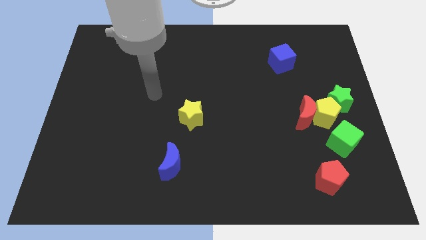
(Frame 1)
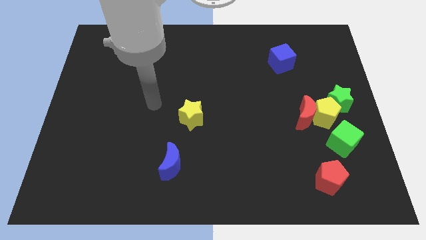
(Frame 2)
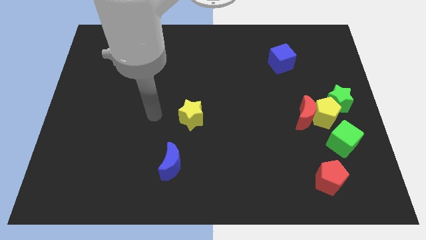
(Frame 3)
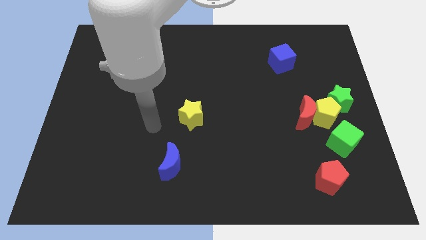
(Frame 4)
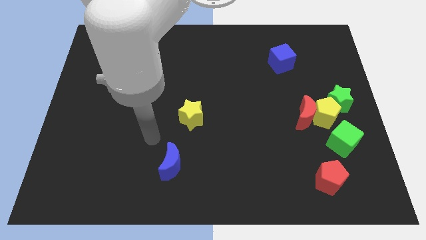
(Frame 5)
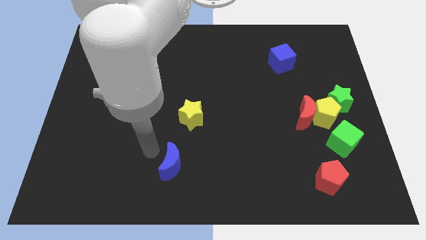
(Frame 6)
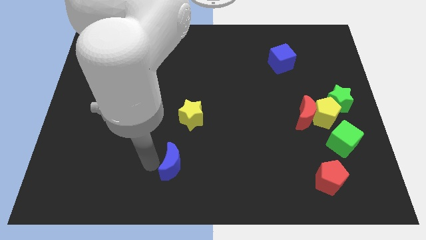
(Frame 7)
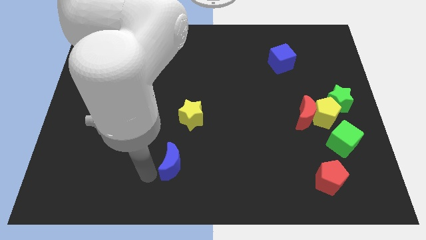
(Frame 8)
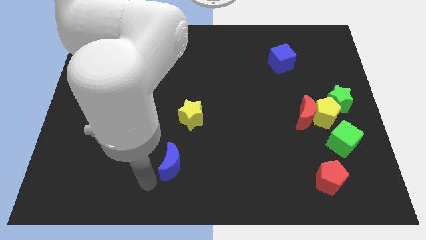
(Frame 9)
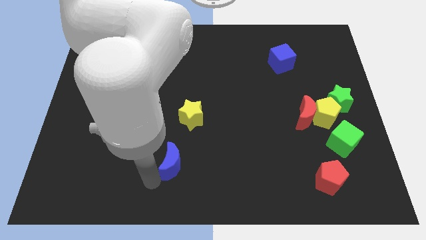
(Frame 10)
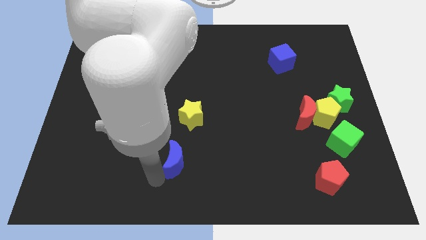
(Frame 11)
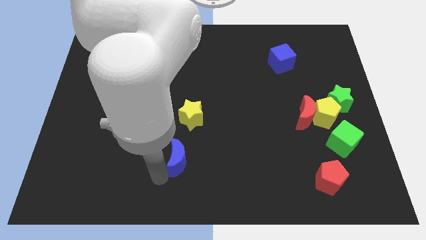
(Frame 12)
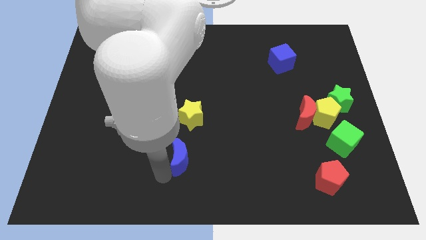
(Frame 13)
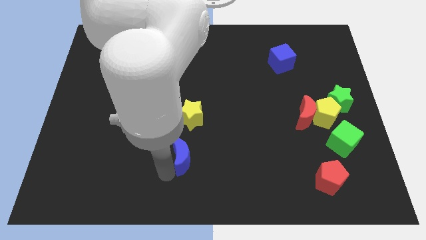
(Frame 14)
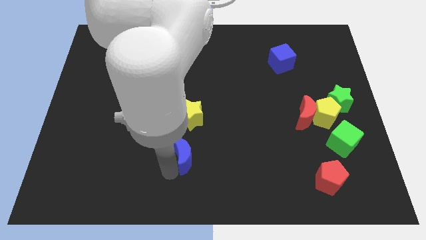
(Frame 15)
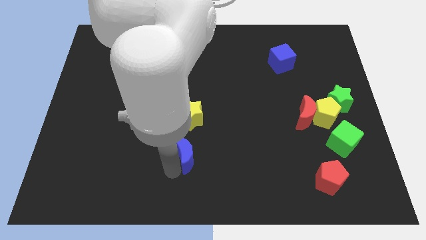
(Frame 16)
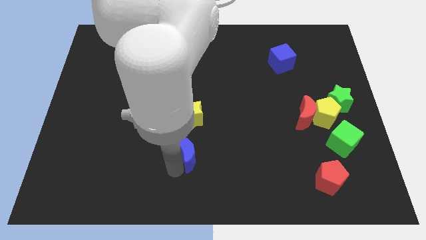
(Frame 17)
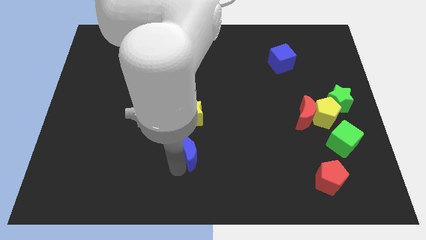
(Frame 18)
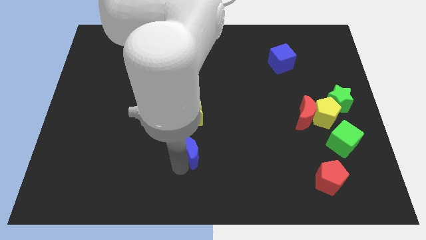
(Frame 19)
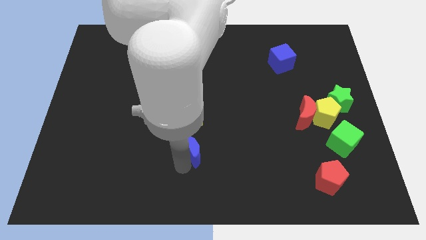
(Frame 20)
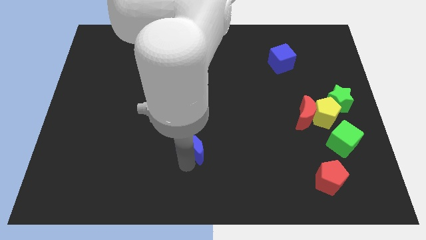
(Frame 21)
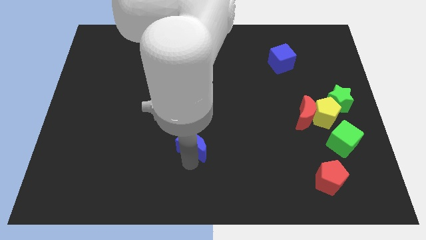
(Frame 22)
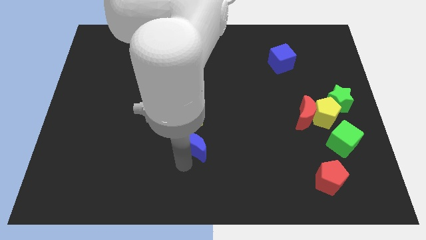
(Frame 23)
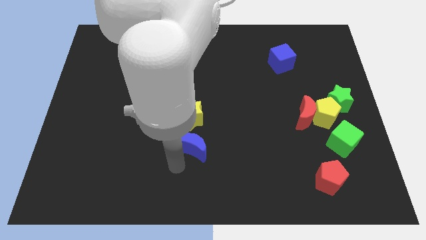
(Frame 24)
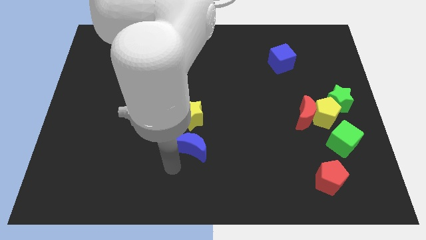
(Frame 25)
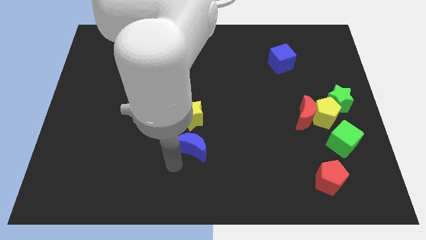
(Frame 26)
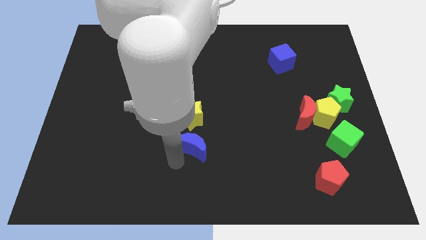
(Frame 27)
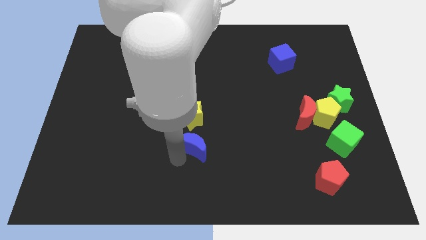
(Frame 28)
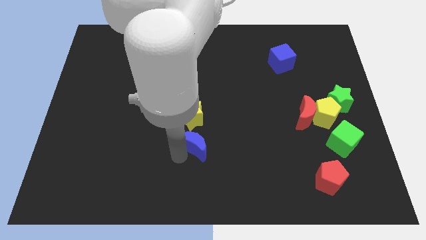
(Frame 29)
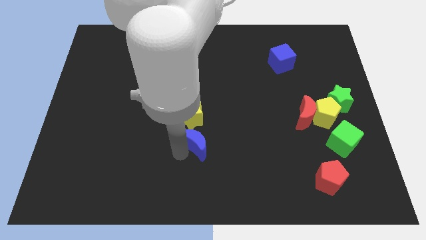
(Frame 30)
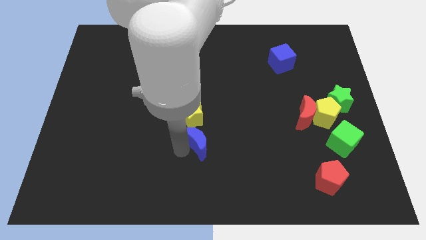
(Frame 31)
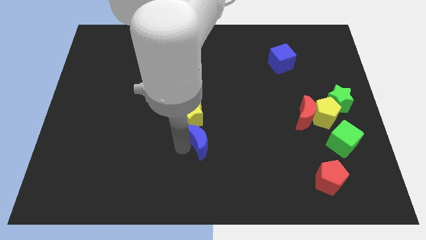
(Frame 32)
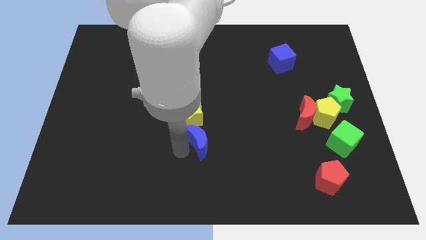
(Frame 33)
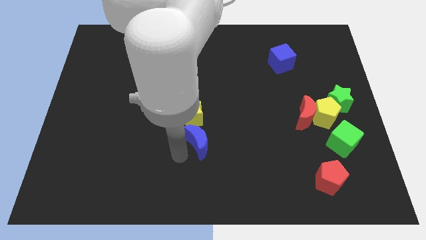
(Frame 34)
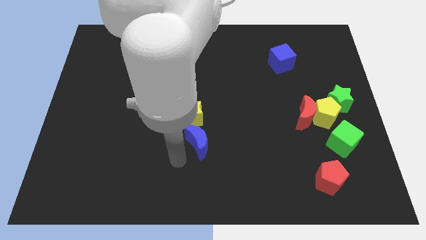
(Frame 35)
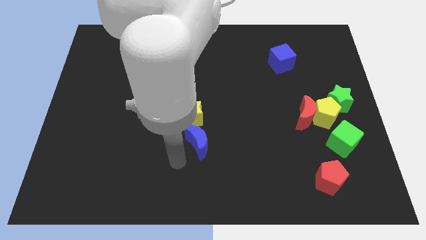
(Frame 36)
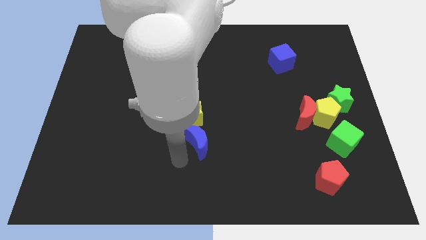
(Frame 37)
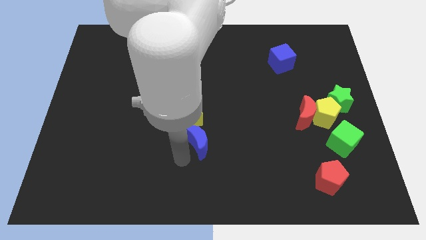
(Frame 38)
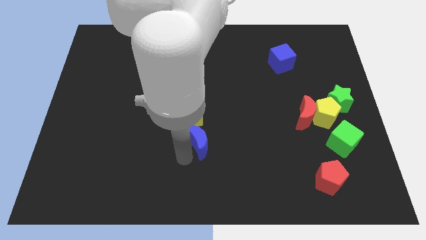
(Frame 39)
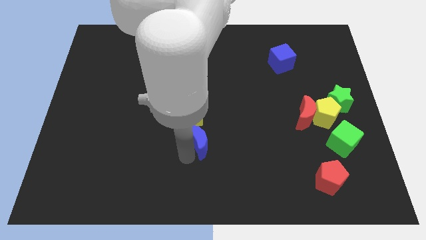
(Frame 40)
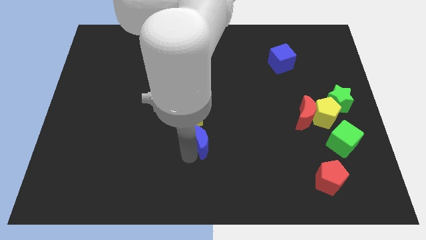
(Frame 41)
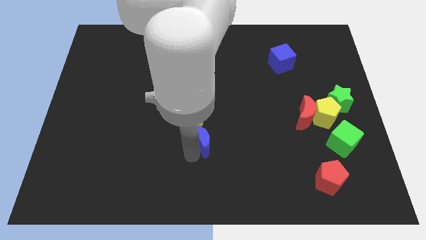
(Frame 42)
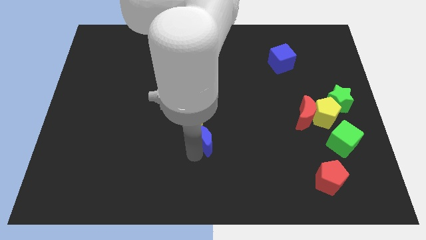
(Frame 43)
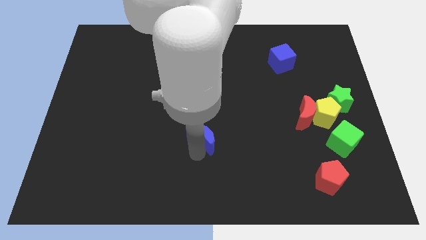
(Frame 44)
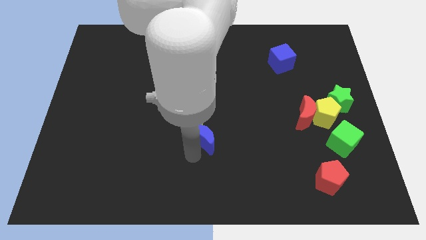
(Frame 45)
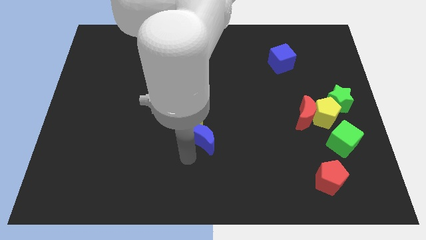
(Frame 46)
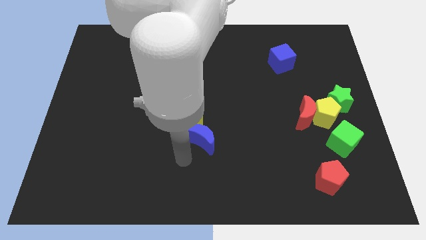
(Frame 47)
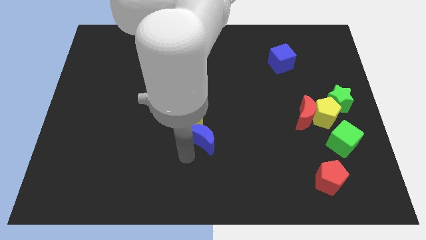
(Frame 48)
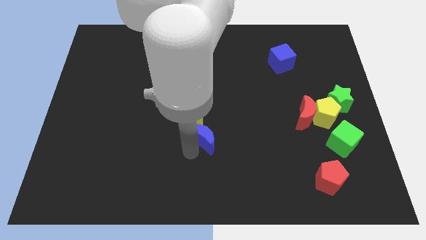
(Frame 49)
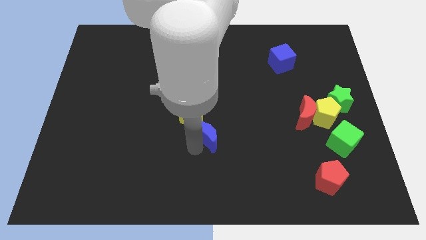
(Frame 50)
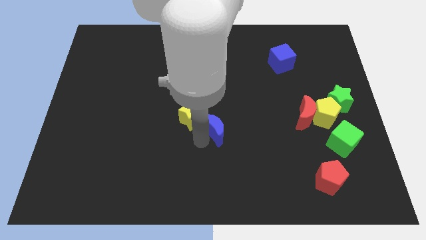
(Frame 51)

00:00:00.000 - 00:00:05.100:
move the blue moon just right of the yellow star

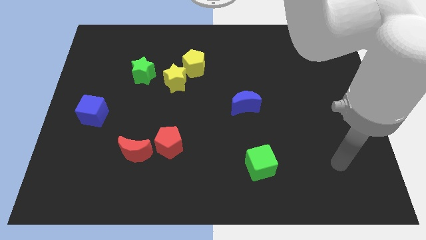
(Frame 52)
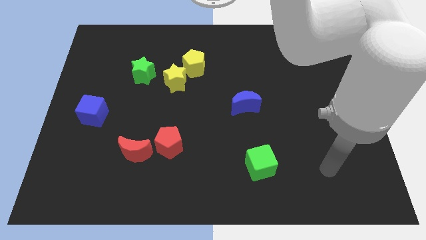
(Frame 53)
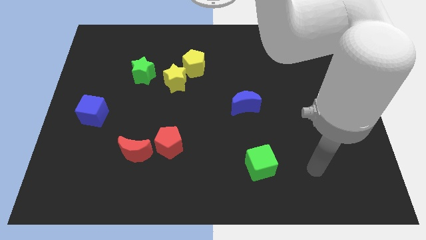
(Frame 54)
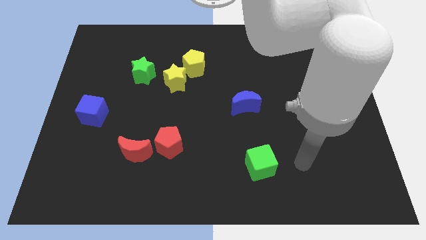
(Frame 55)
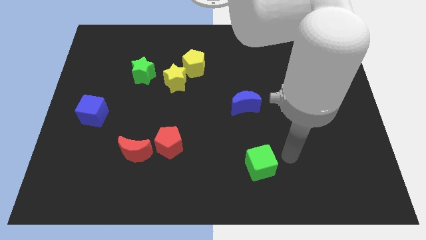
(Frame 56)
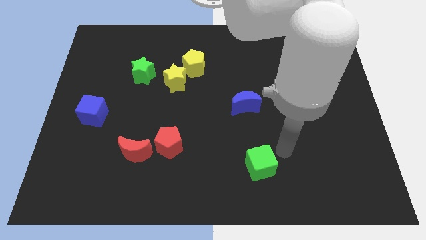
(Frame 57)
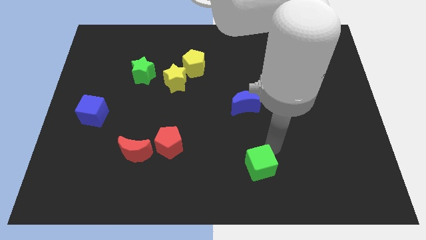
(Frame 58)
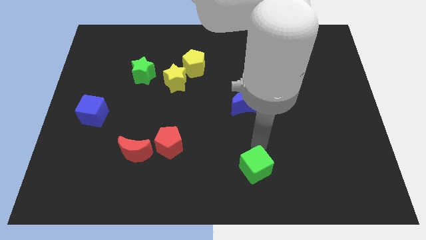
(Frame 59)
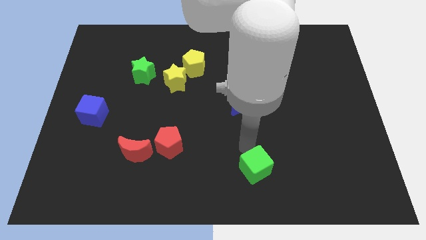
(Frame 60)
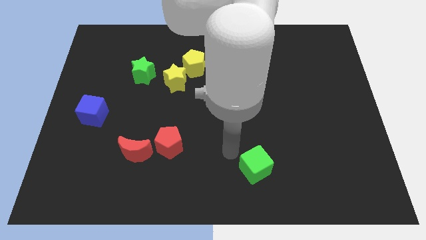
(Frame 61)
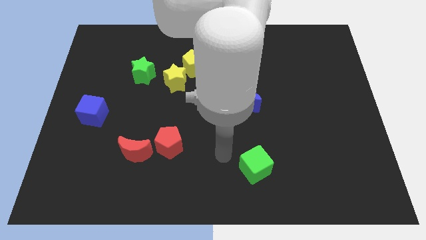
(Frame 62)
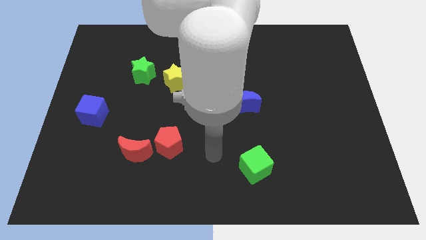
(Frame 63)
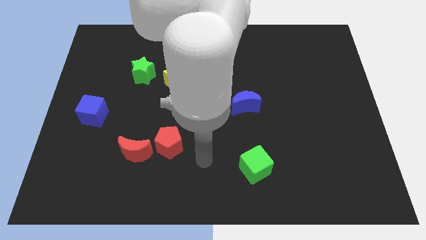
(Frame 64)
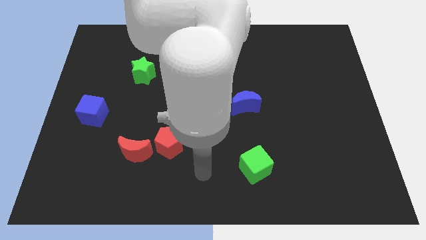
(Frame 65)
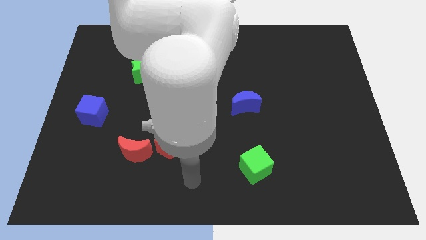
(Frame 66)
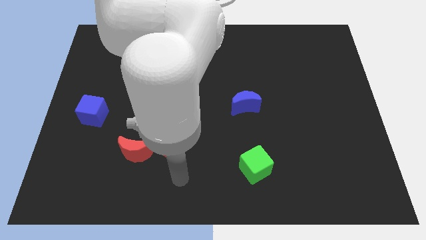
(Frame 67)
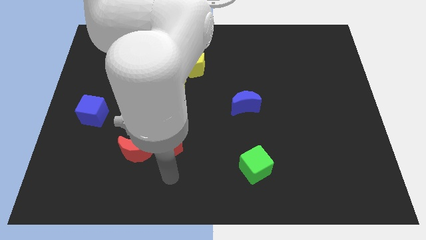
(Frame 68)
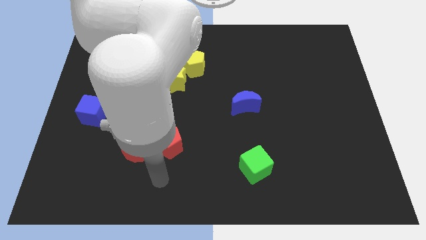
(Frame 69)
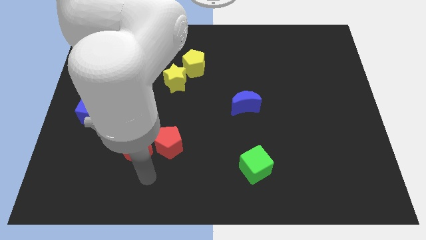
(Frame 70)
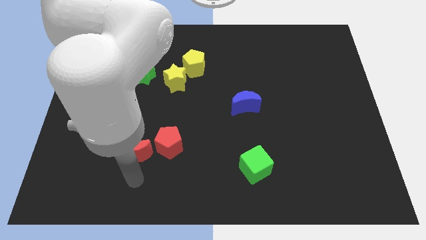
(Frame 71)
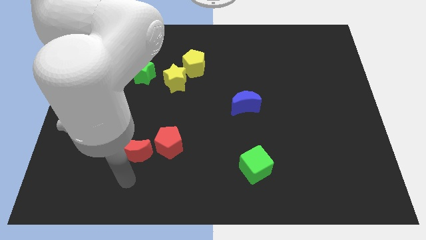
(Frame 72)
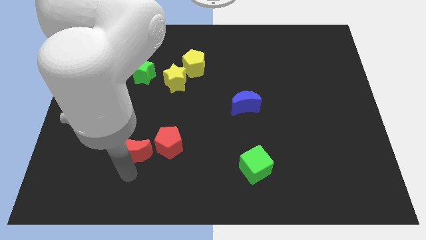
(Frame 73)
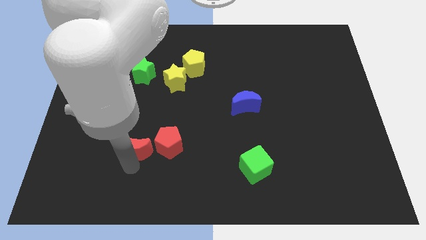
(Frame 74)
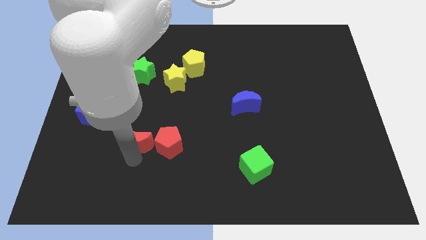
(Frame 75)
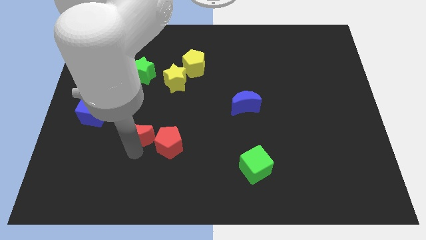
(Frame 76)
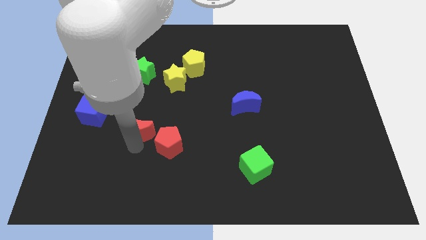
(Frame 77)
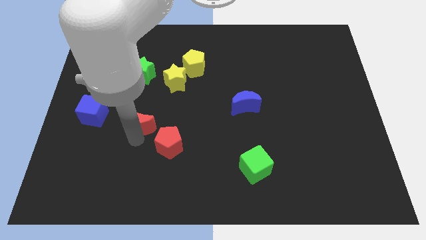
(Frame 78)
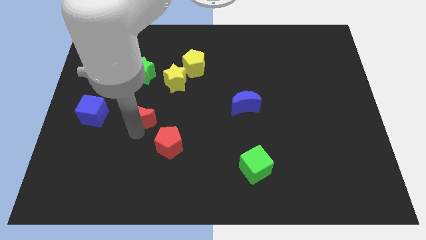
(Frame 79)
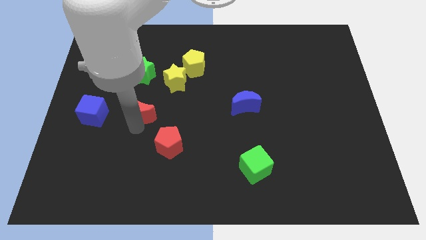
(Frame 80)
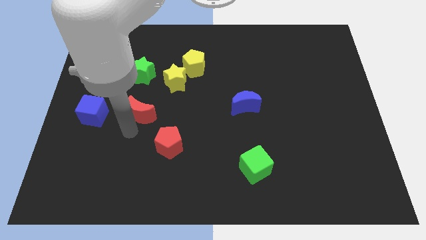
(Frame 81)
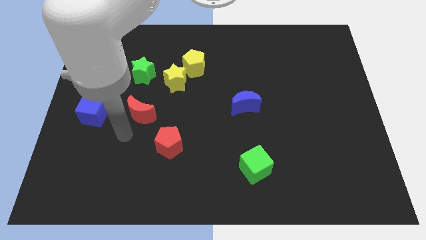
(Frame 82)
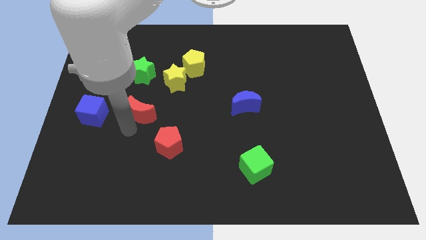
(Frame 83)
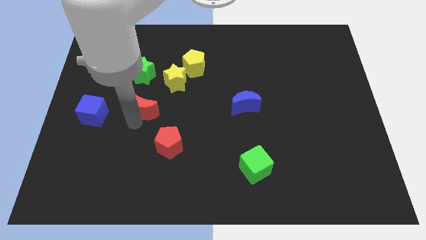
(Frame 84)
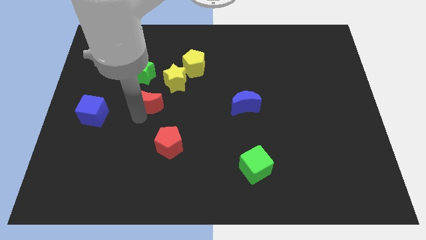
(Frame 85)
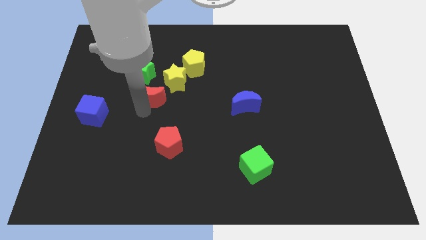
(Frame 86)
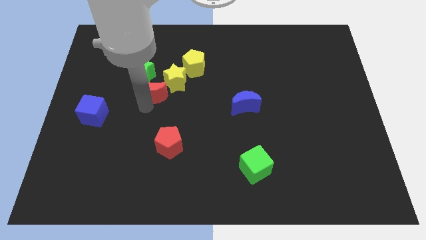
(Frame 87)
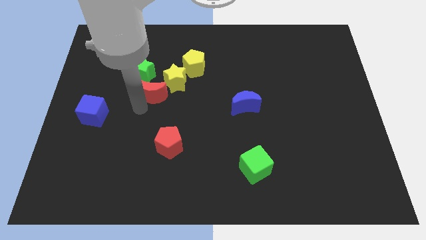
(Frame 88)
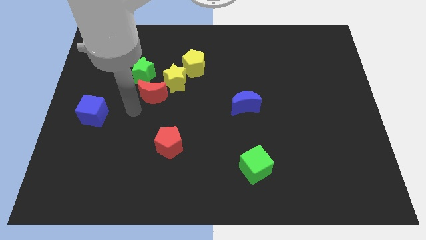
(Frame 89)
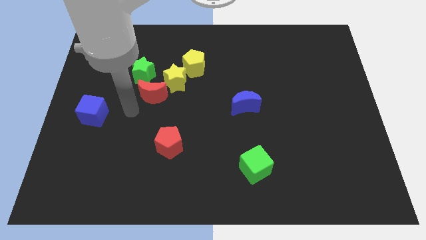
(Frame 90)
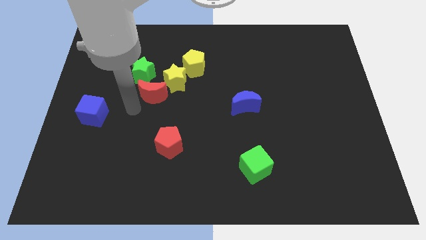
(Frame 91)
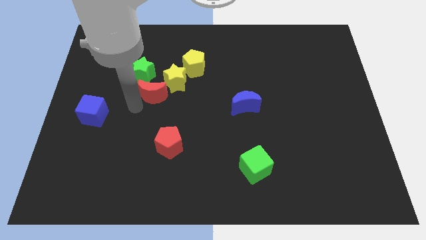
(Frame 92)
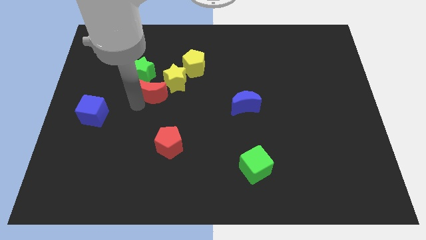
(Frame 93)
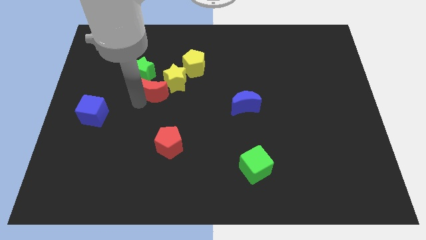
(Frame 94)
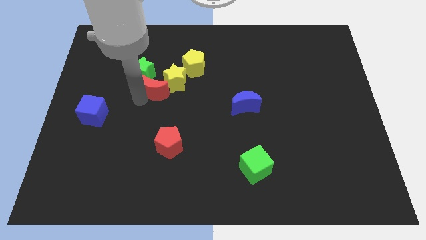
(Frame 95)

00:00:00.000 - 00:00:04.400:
put the red moon to the bottom left of the yellow pentagon
